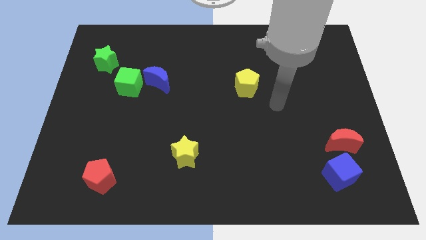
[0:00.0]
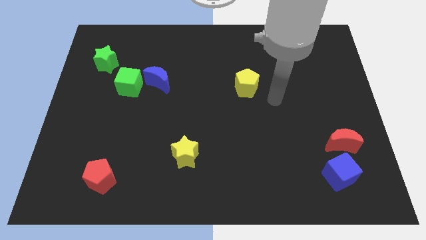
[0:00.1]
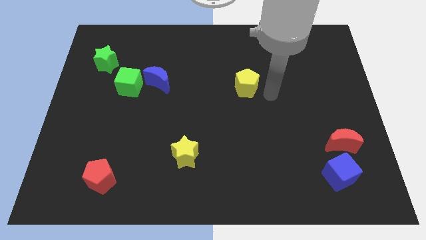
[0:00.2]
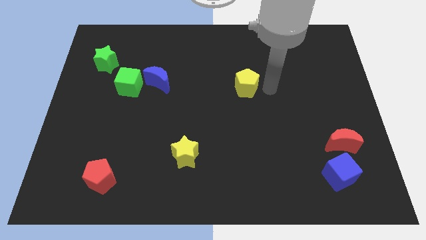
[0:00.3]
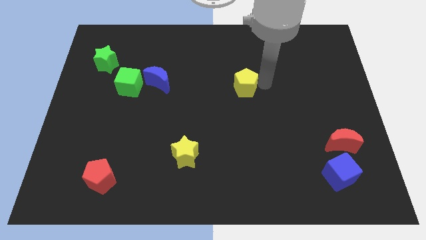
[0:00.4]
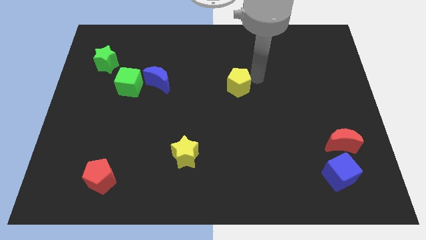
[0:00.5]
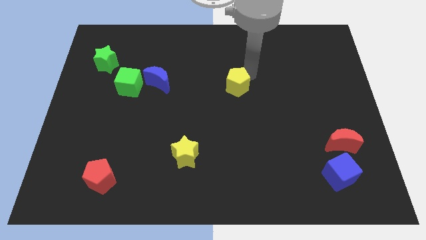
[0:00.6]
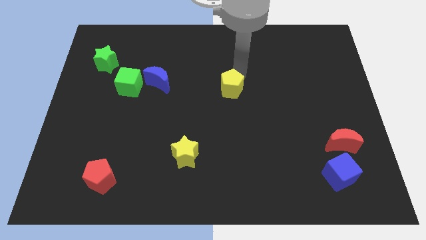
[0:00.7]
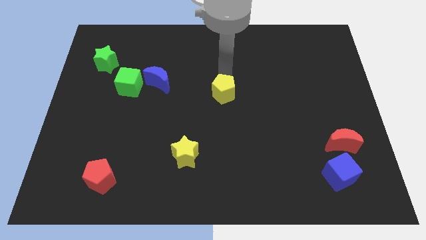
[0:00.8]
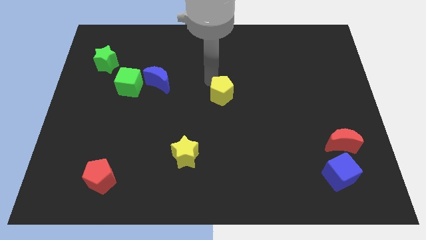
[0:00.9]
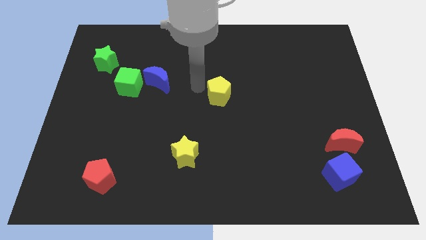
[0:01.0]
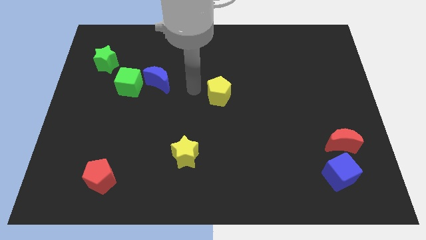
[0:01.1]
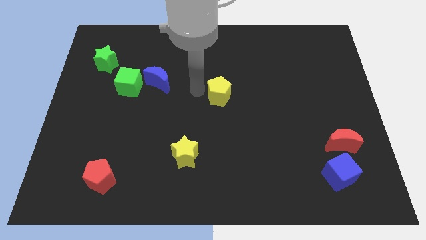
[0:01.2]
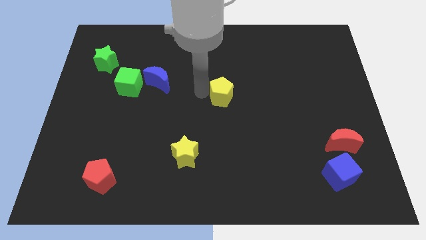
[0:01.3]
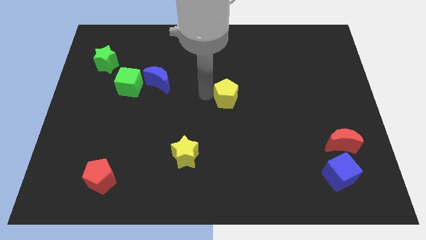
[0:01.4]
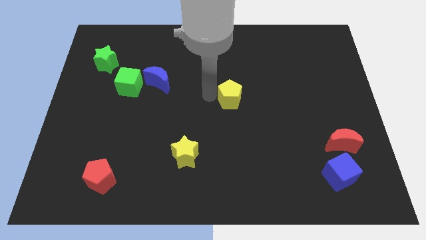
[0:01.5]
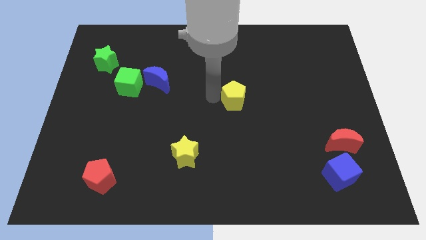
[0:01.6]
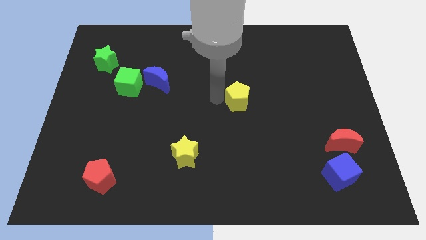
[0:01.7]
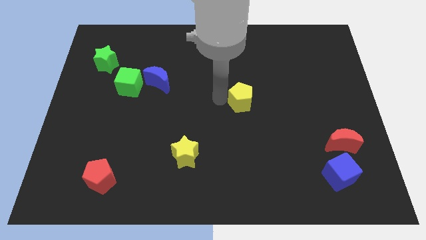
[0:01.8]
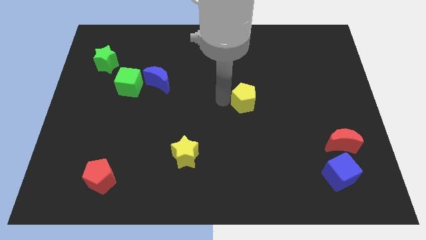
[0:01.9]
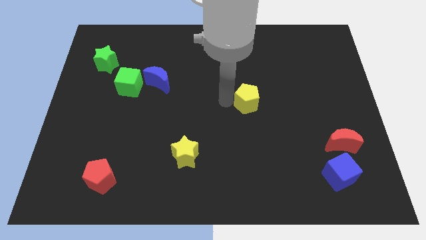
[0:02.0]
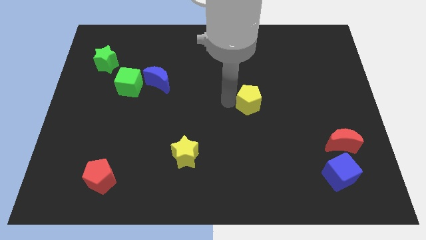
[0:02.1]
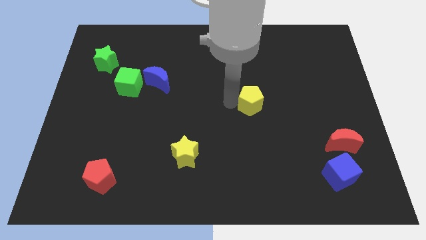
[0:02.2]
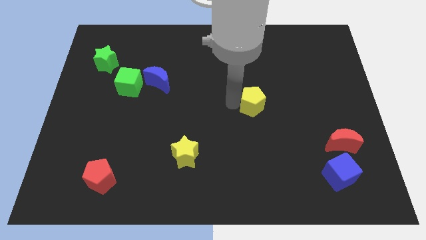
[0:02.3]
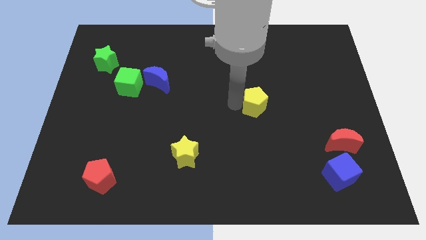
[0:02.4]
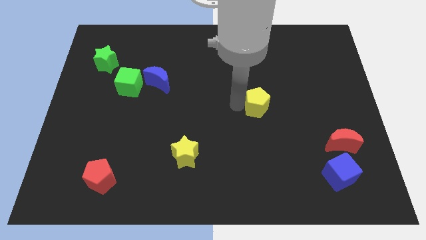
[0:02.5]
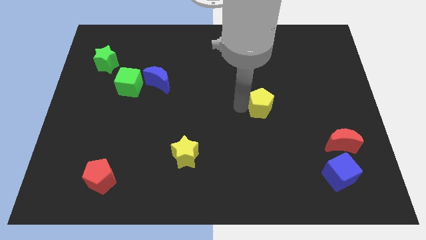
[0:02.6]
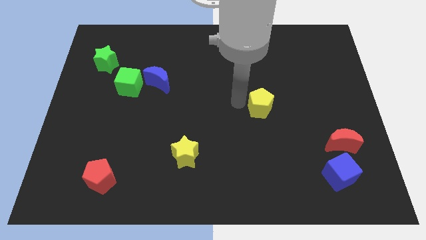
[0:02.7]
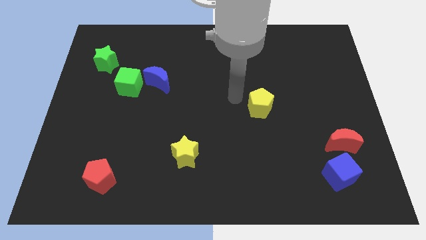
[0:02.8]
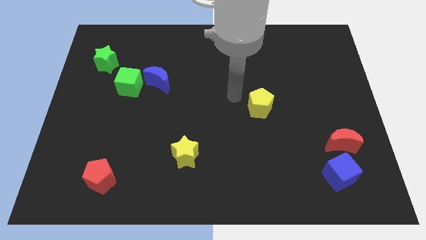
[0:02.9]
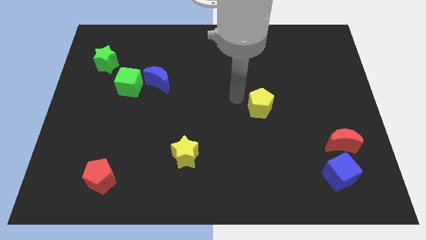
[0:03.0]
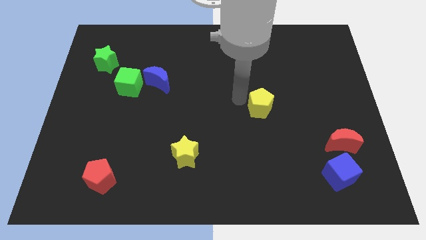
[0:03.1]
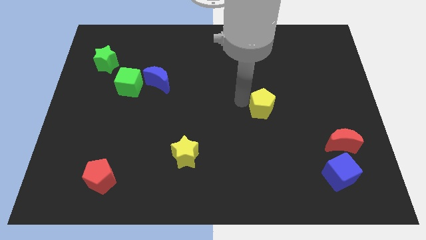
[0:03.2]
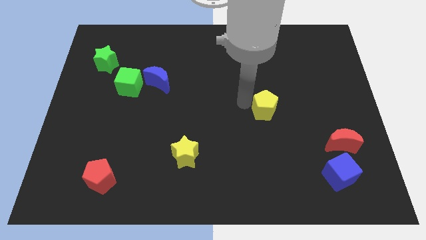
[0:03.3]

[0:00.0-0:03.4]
push the yellow pentagon a little diagonally downwards and to the right

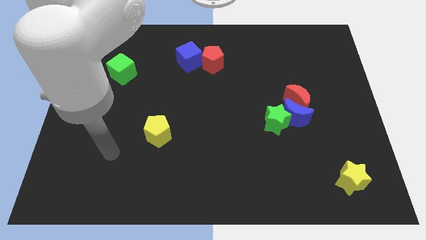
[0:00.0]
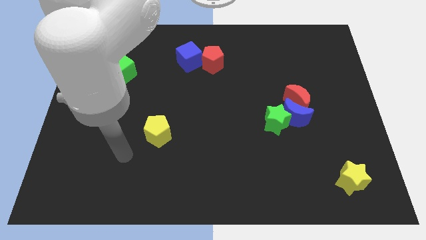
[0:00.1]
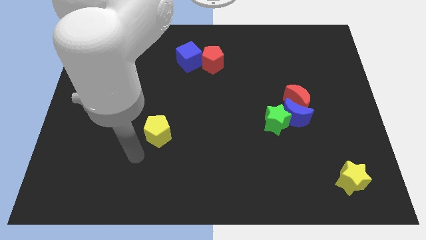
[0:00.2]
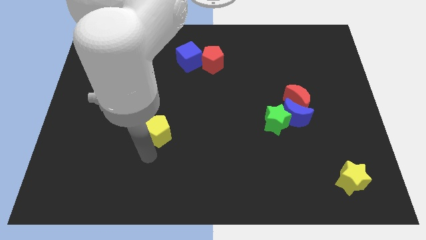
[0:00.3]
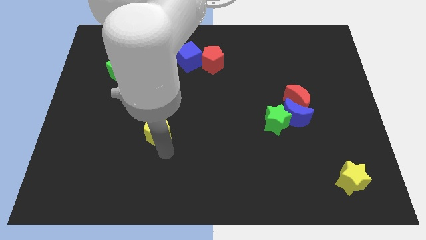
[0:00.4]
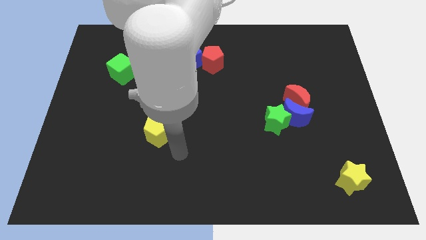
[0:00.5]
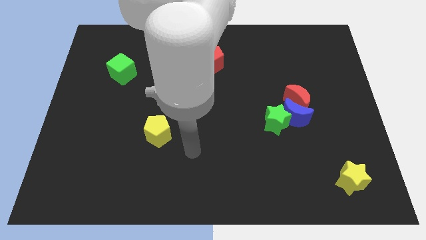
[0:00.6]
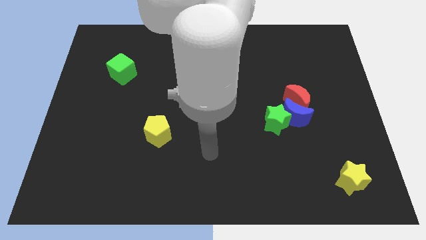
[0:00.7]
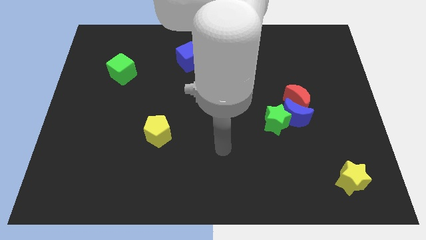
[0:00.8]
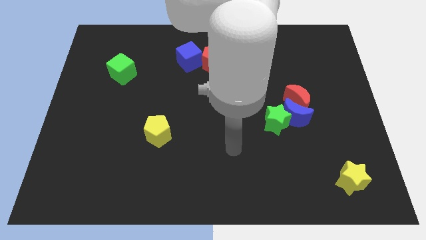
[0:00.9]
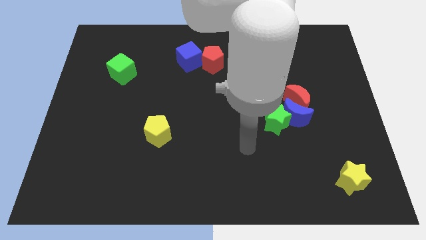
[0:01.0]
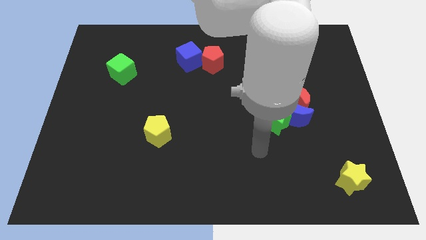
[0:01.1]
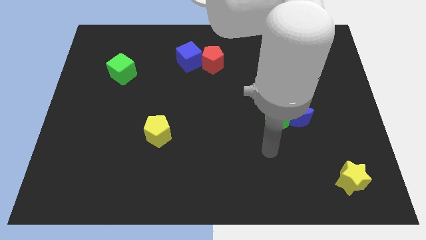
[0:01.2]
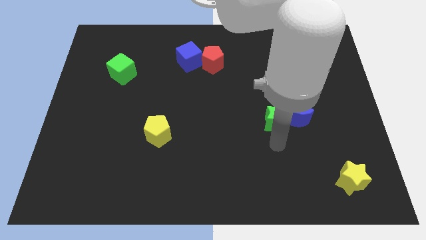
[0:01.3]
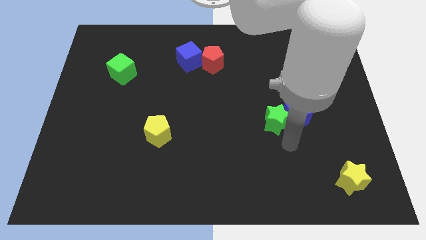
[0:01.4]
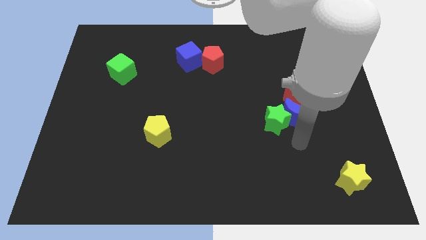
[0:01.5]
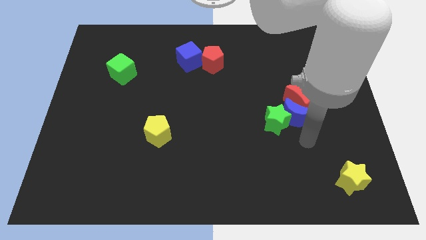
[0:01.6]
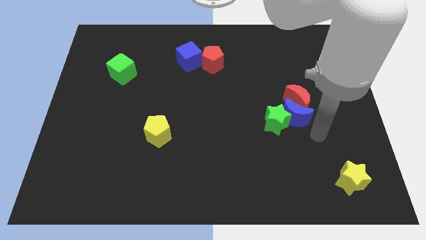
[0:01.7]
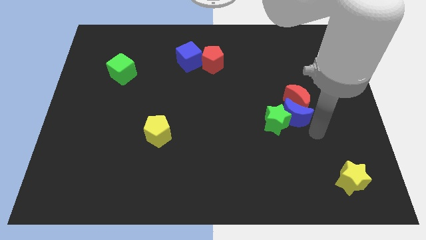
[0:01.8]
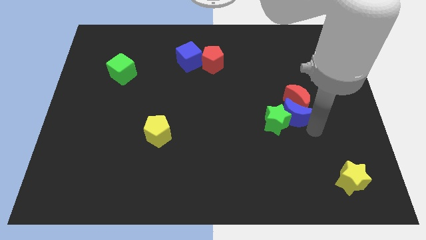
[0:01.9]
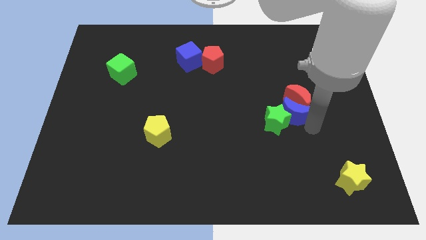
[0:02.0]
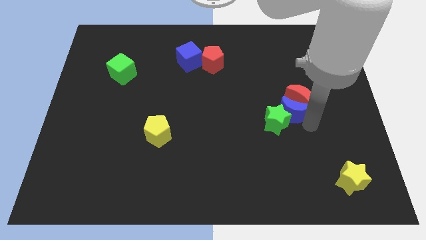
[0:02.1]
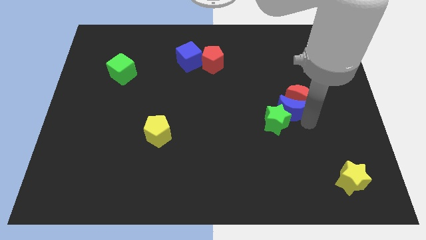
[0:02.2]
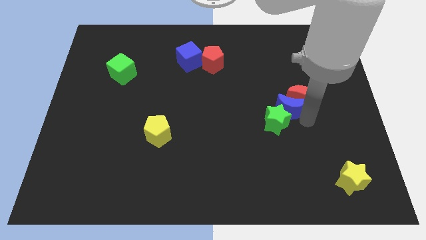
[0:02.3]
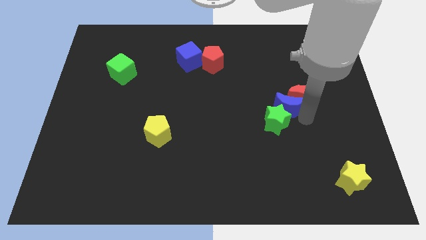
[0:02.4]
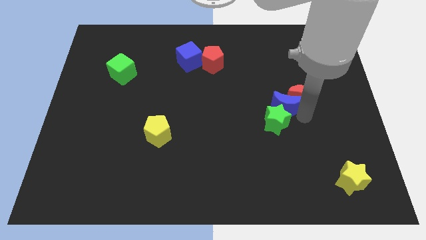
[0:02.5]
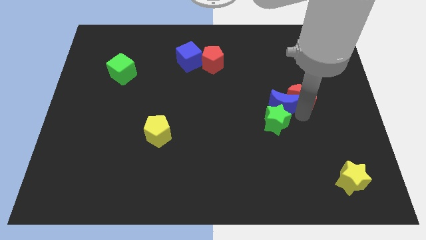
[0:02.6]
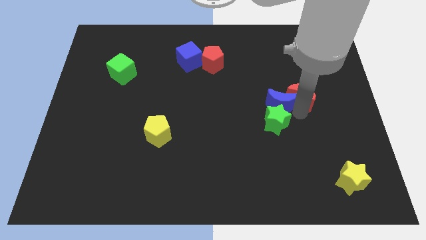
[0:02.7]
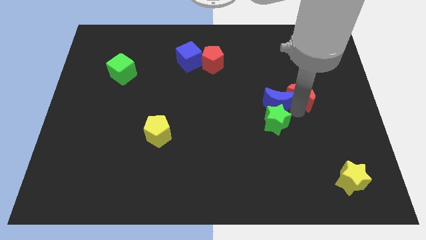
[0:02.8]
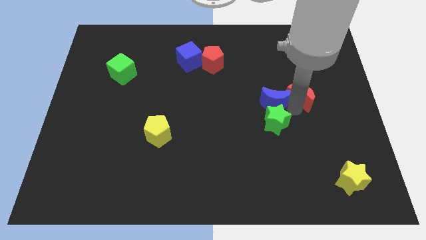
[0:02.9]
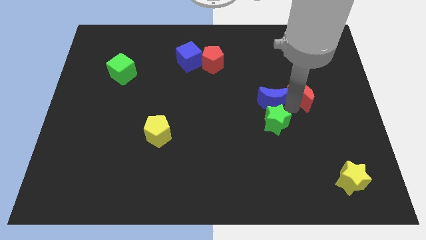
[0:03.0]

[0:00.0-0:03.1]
slightly push the blue moon diagonally upwards and to the left

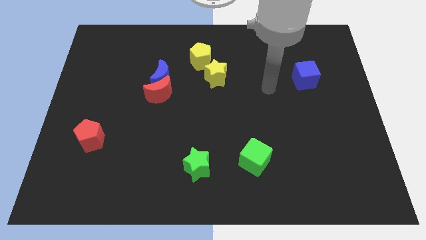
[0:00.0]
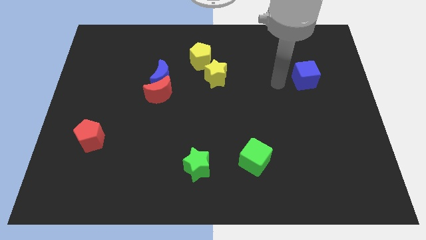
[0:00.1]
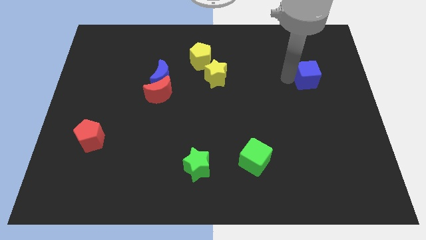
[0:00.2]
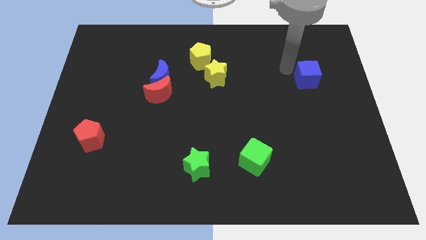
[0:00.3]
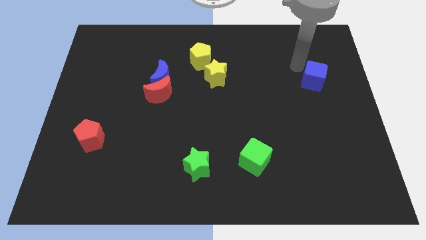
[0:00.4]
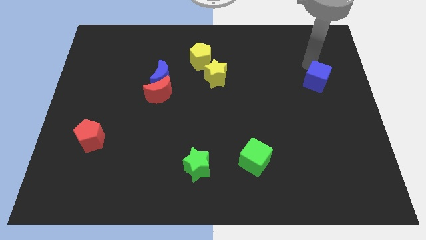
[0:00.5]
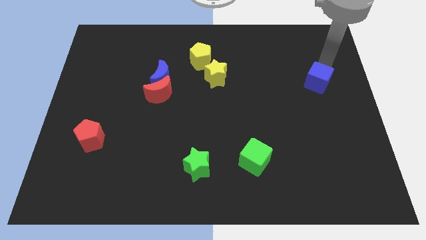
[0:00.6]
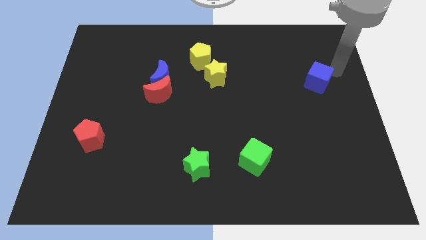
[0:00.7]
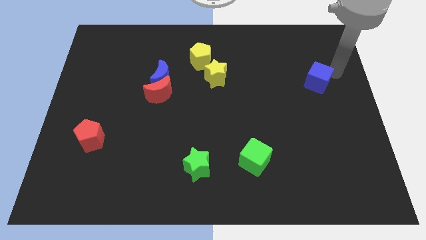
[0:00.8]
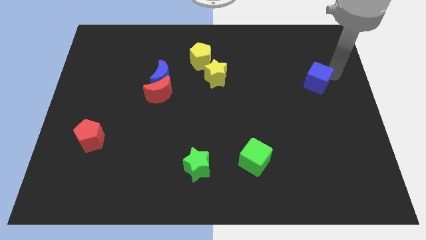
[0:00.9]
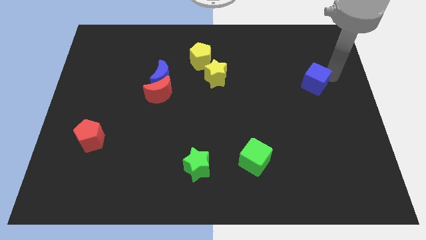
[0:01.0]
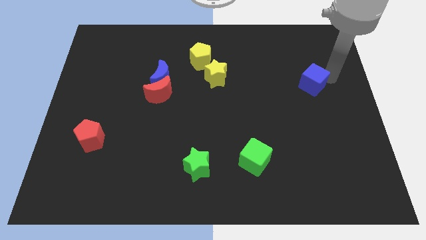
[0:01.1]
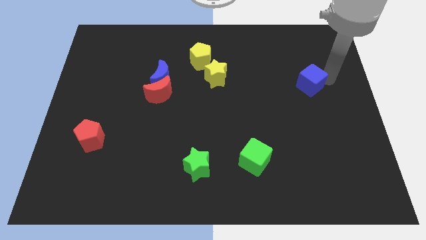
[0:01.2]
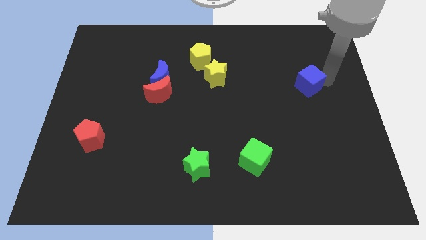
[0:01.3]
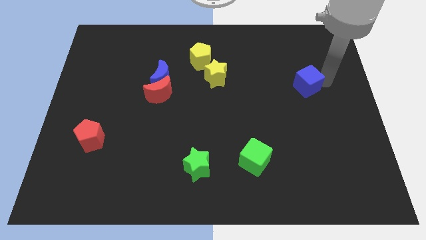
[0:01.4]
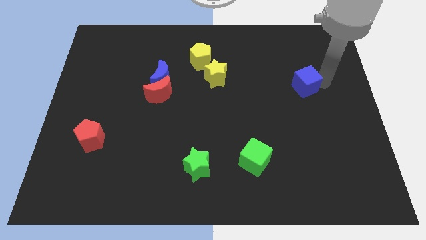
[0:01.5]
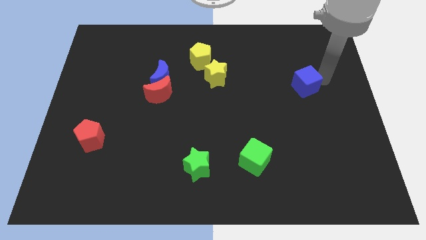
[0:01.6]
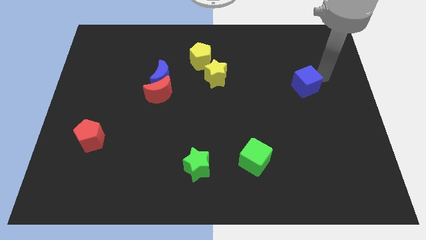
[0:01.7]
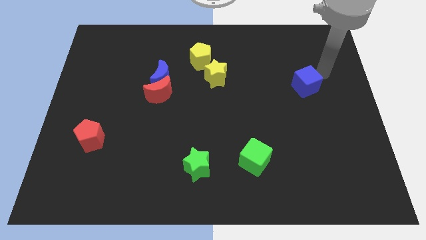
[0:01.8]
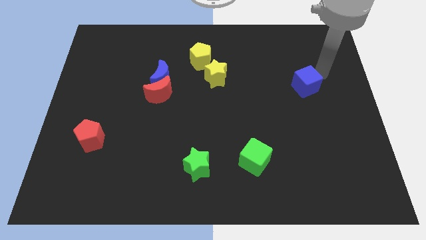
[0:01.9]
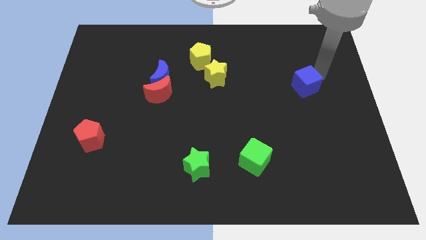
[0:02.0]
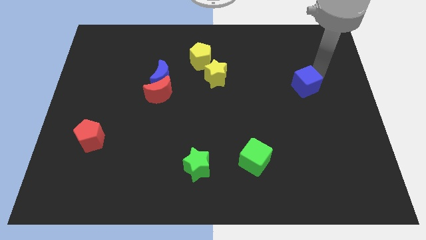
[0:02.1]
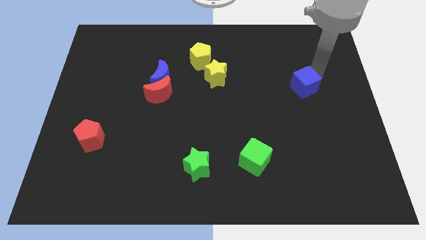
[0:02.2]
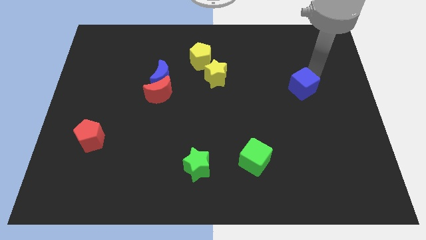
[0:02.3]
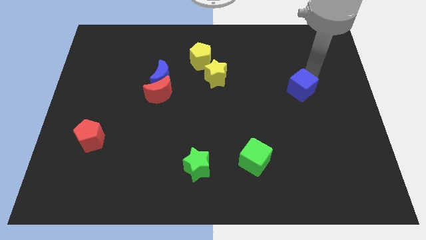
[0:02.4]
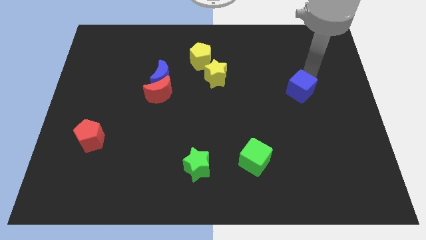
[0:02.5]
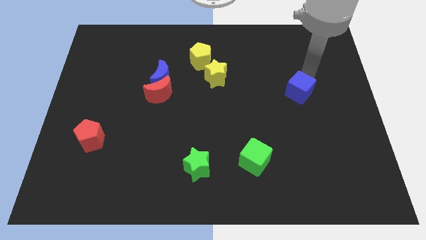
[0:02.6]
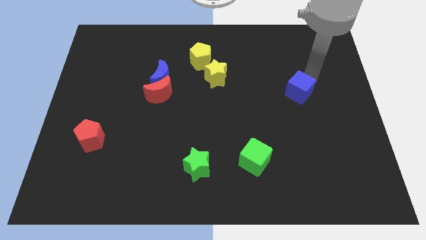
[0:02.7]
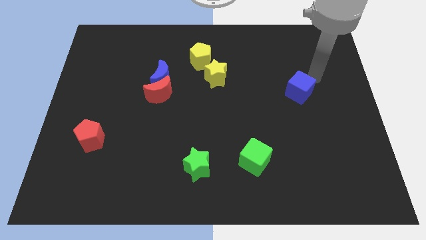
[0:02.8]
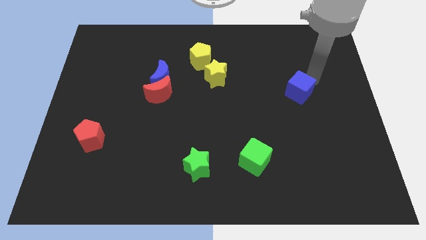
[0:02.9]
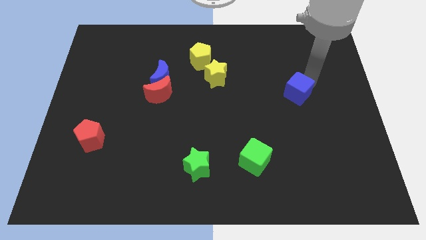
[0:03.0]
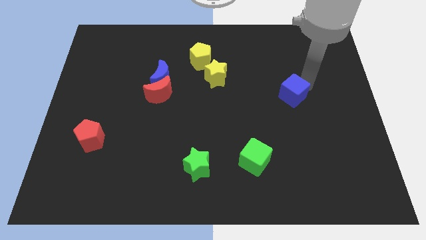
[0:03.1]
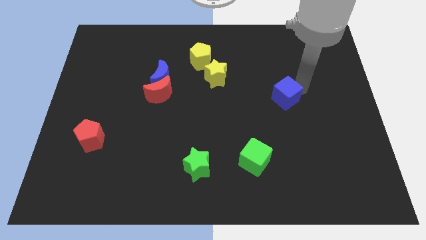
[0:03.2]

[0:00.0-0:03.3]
slightly slide the blue cube down and left diagonally
